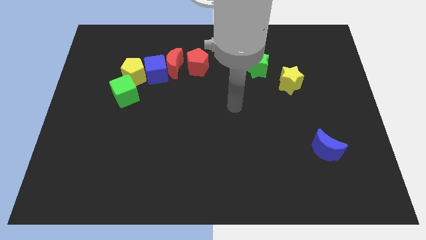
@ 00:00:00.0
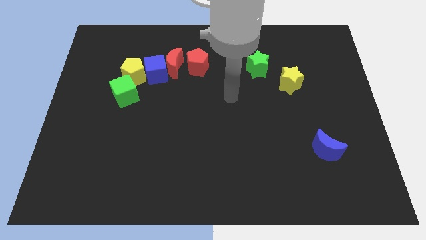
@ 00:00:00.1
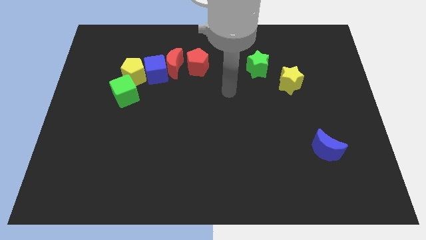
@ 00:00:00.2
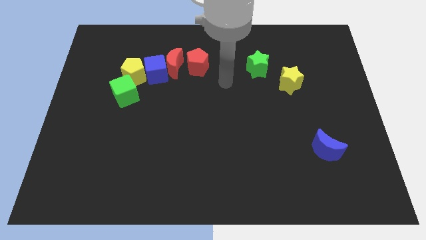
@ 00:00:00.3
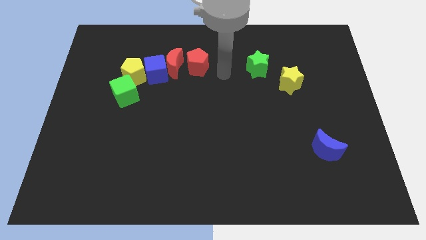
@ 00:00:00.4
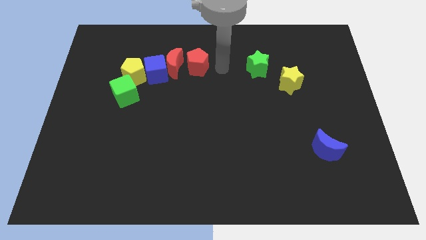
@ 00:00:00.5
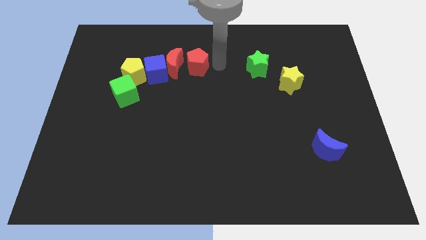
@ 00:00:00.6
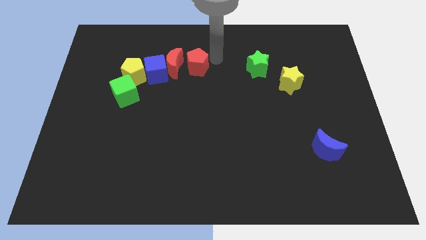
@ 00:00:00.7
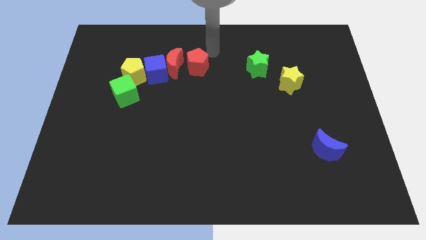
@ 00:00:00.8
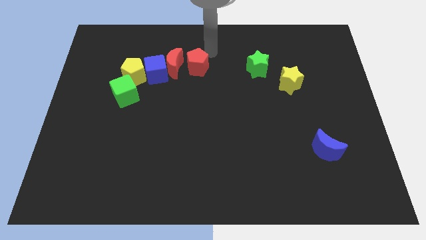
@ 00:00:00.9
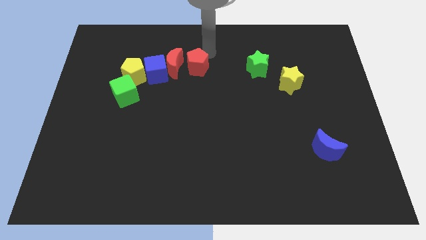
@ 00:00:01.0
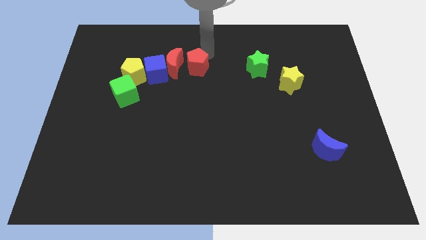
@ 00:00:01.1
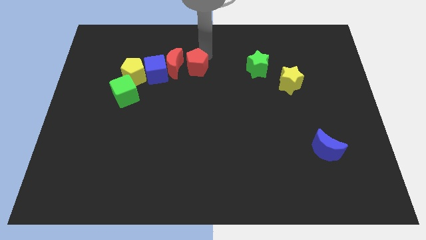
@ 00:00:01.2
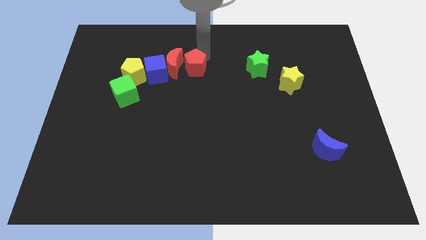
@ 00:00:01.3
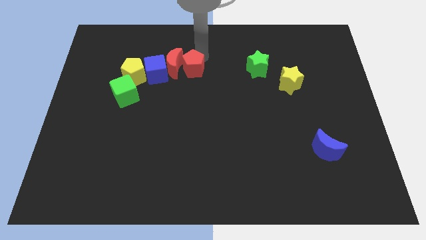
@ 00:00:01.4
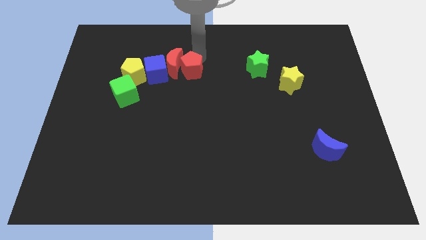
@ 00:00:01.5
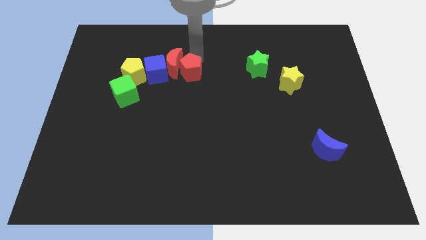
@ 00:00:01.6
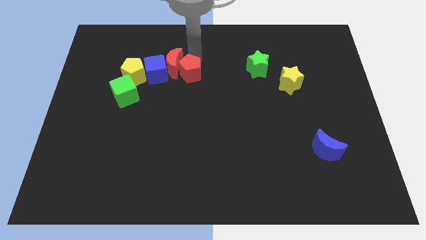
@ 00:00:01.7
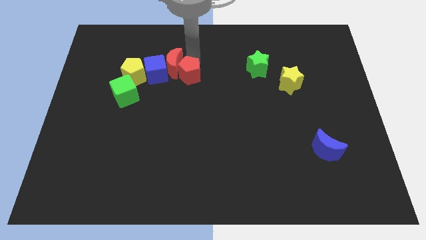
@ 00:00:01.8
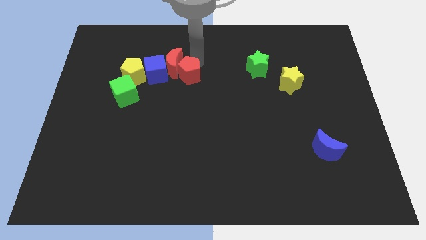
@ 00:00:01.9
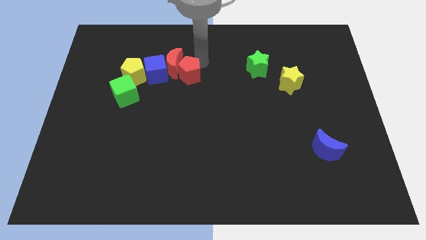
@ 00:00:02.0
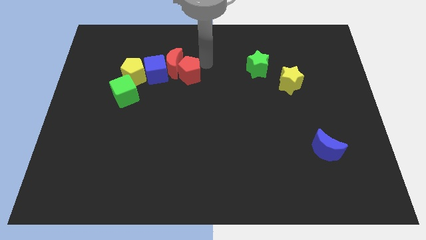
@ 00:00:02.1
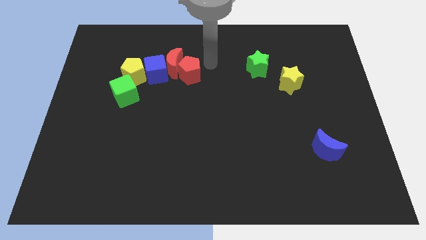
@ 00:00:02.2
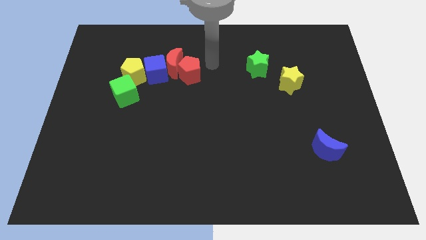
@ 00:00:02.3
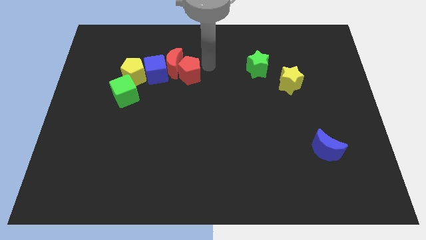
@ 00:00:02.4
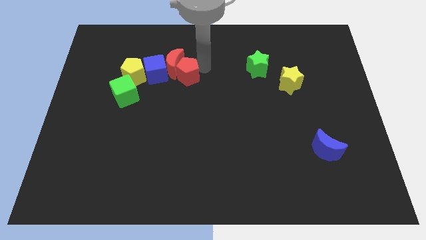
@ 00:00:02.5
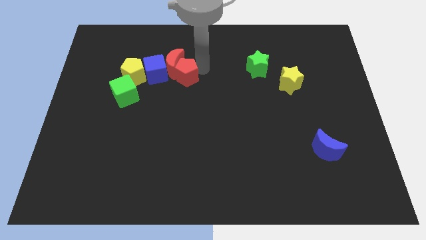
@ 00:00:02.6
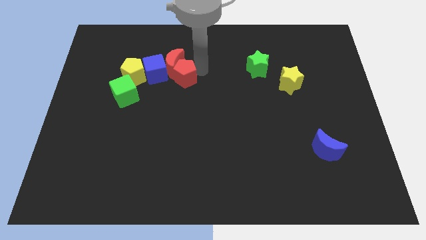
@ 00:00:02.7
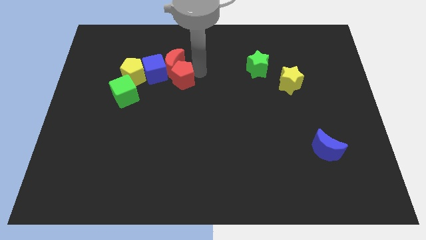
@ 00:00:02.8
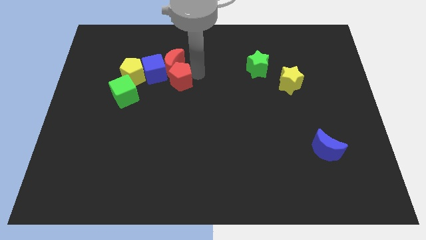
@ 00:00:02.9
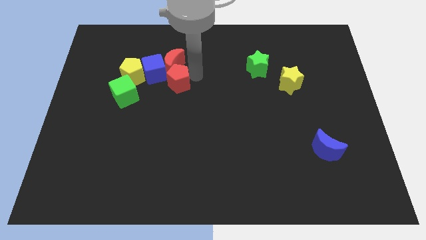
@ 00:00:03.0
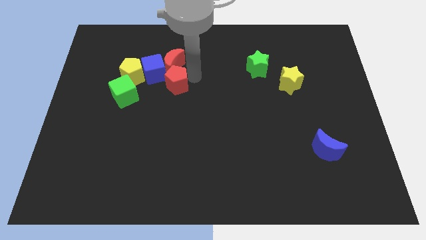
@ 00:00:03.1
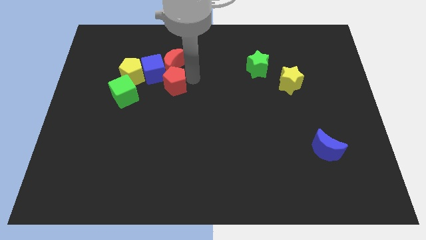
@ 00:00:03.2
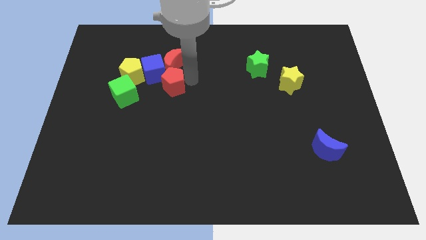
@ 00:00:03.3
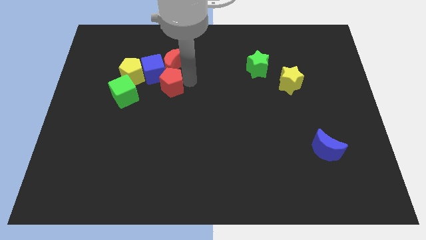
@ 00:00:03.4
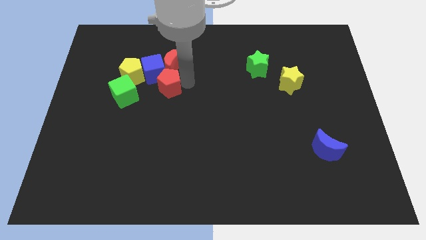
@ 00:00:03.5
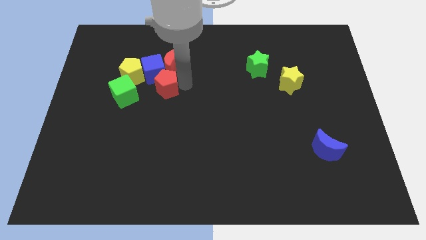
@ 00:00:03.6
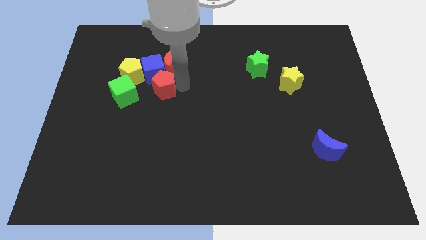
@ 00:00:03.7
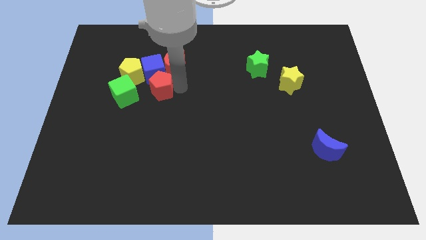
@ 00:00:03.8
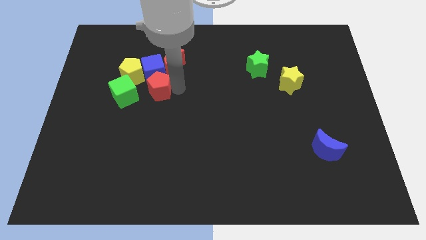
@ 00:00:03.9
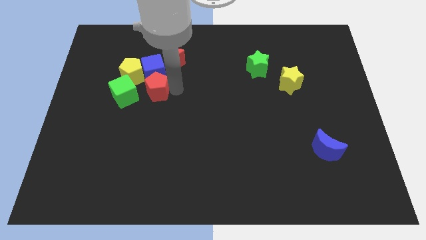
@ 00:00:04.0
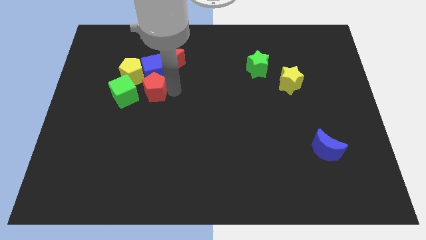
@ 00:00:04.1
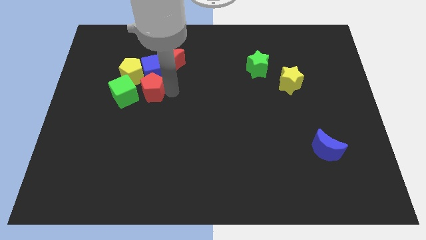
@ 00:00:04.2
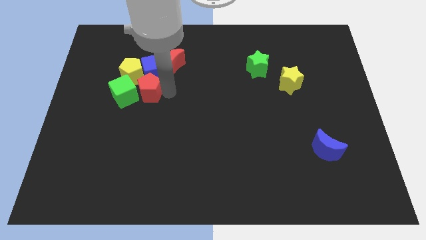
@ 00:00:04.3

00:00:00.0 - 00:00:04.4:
push the red pentagon next to the green cube

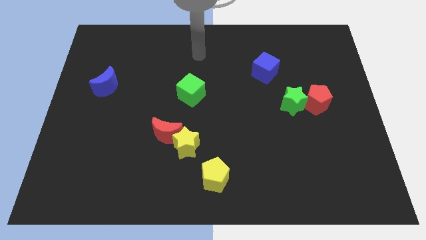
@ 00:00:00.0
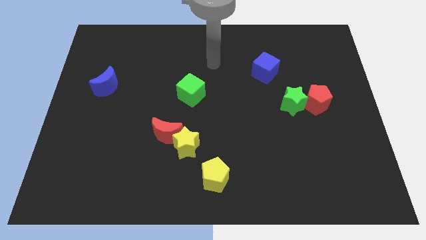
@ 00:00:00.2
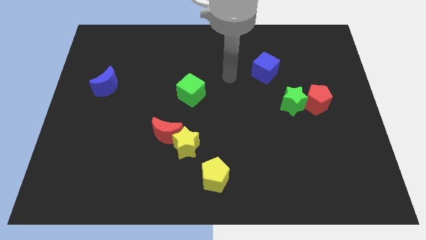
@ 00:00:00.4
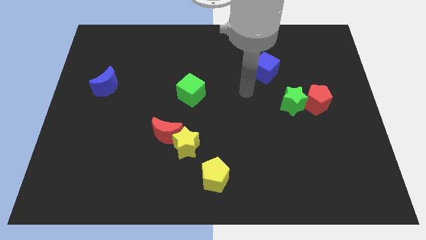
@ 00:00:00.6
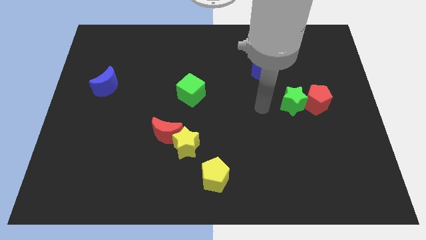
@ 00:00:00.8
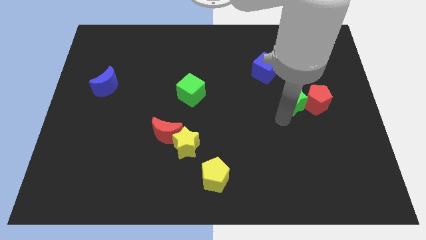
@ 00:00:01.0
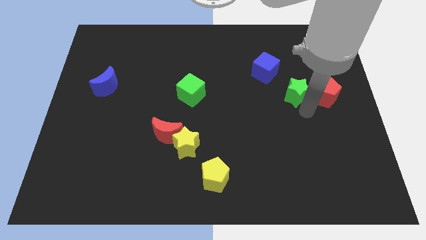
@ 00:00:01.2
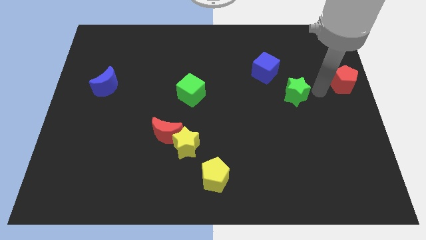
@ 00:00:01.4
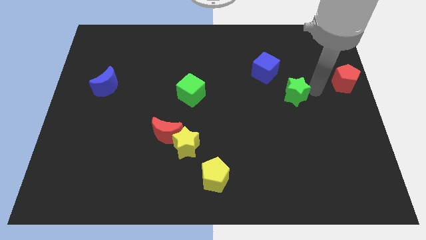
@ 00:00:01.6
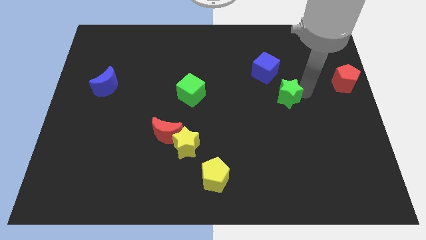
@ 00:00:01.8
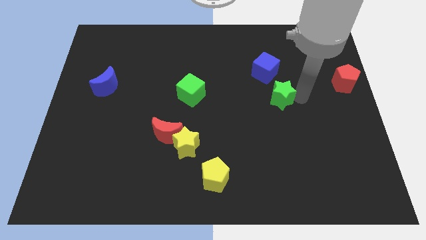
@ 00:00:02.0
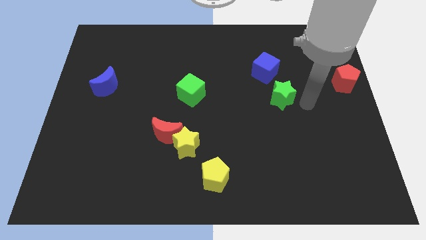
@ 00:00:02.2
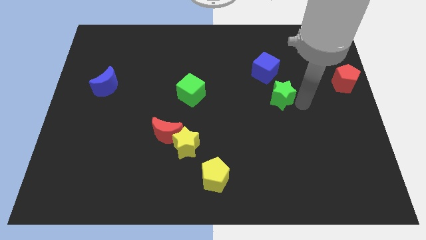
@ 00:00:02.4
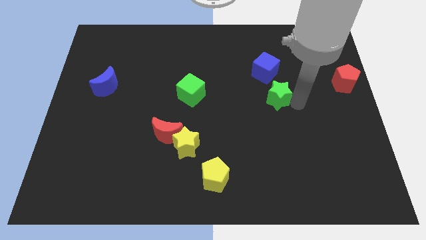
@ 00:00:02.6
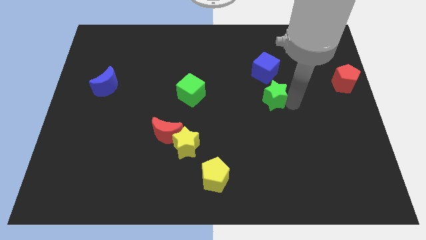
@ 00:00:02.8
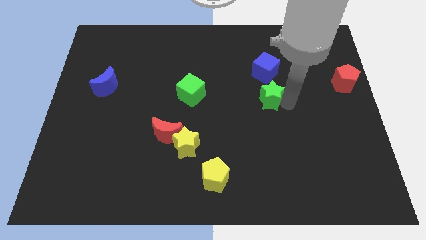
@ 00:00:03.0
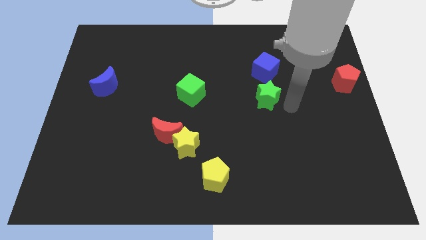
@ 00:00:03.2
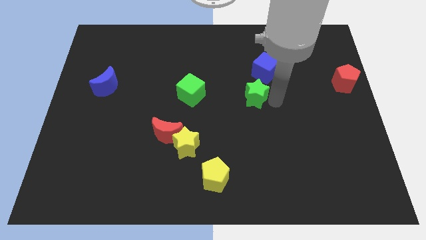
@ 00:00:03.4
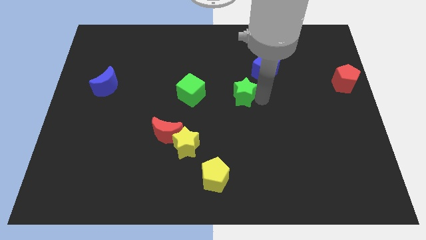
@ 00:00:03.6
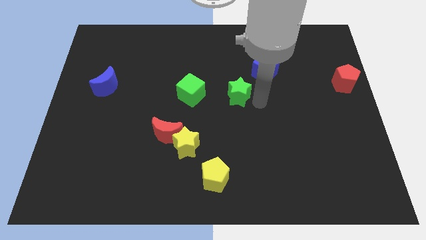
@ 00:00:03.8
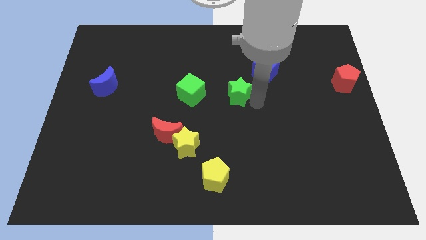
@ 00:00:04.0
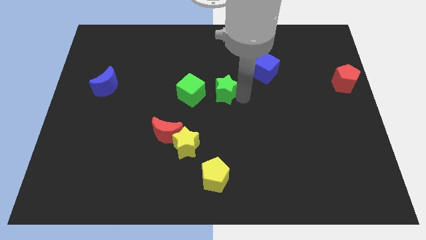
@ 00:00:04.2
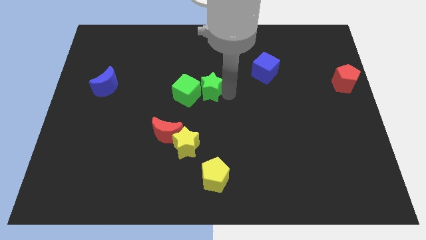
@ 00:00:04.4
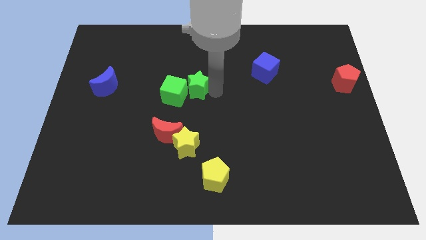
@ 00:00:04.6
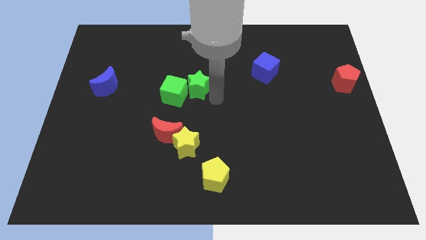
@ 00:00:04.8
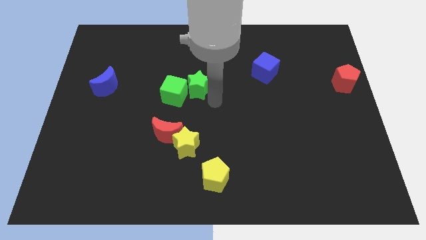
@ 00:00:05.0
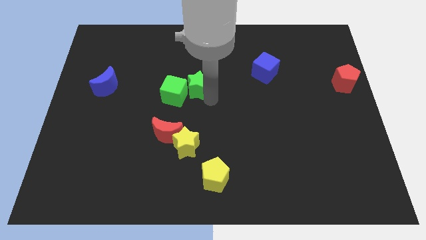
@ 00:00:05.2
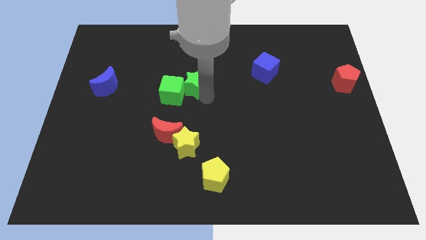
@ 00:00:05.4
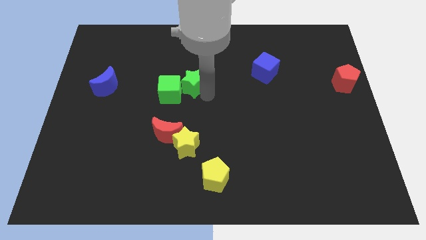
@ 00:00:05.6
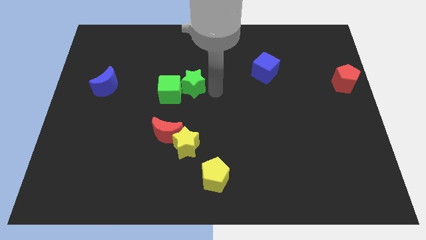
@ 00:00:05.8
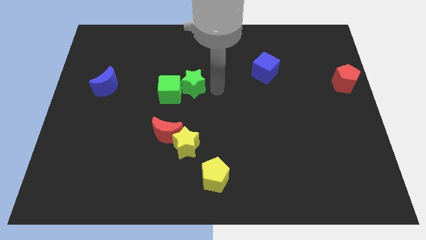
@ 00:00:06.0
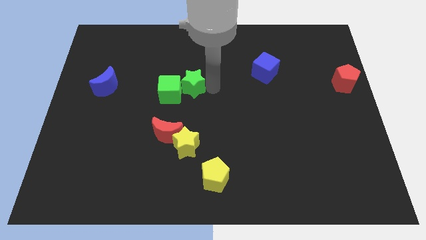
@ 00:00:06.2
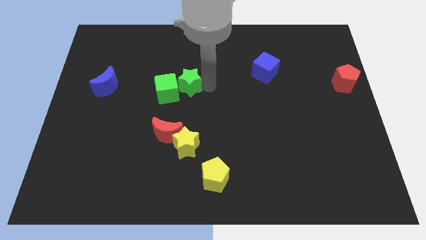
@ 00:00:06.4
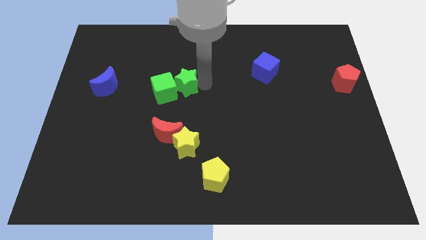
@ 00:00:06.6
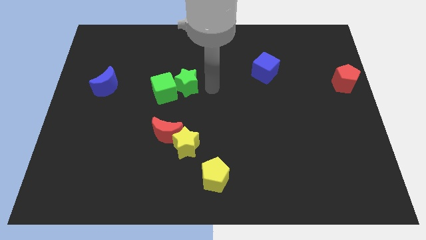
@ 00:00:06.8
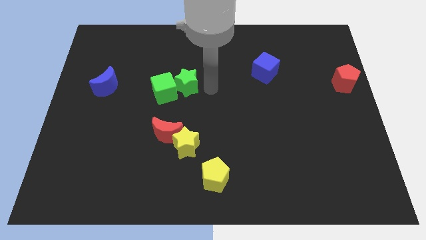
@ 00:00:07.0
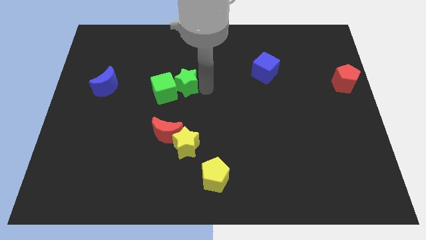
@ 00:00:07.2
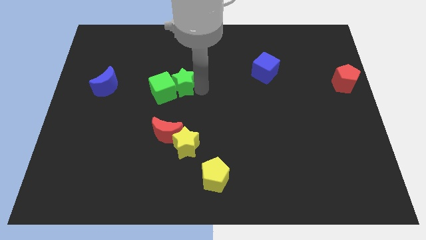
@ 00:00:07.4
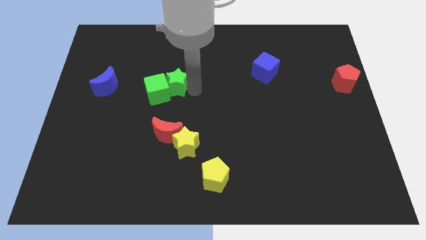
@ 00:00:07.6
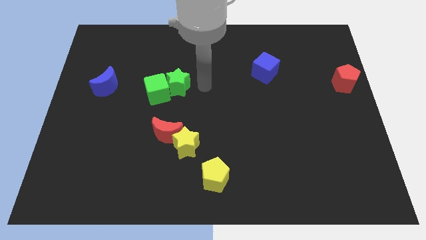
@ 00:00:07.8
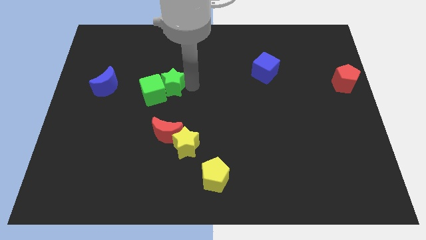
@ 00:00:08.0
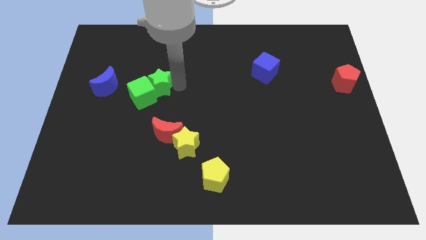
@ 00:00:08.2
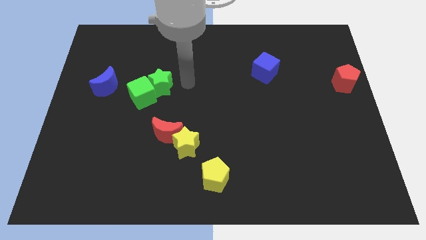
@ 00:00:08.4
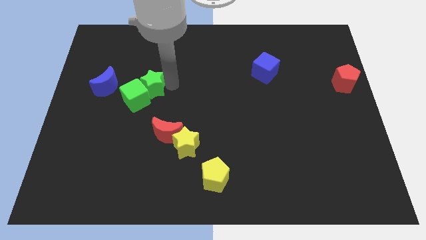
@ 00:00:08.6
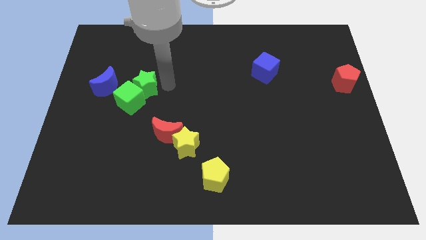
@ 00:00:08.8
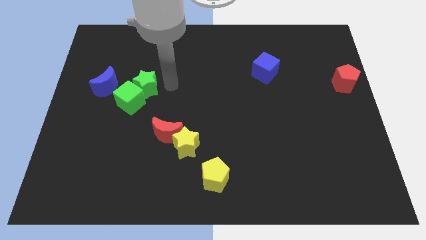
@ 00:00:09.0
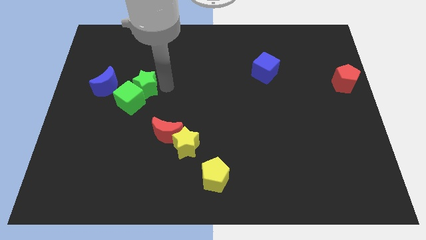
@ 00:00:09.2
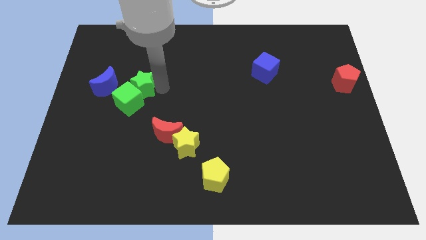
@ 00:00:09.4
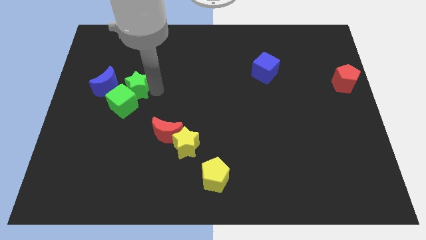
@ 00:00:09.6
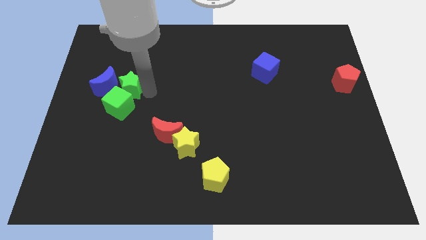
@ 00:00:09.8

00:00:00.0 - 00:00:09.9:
slide the green star next to the blue moon
